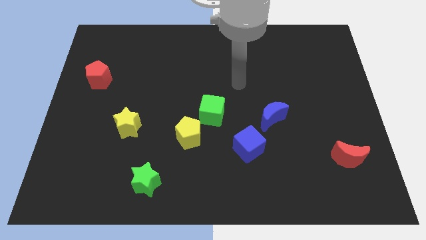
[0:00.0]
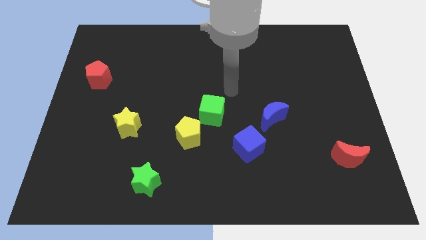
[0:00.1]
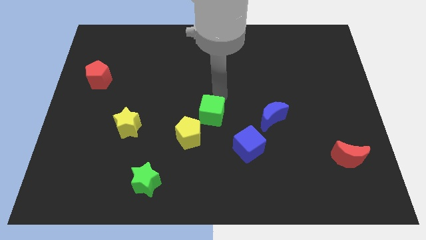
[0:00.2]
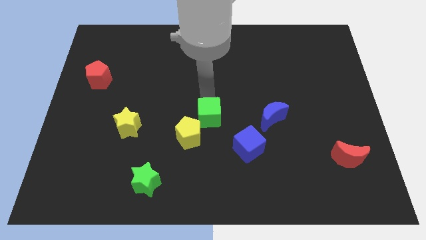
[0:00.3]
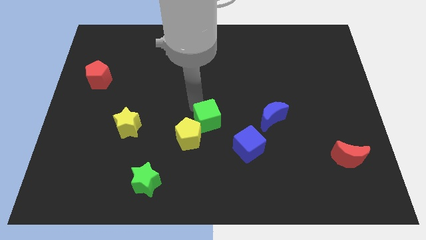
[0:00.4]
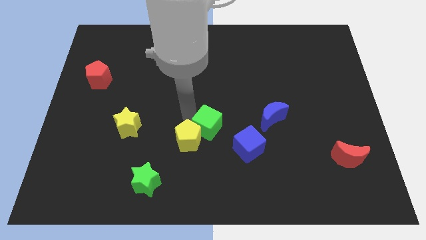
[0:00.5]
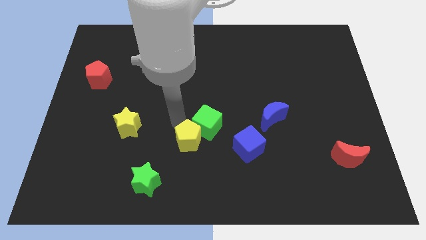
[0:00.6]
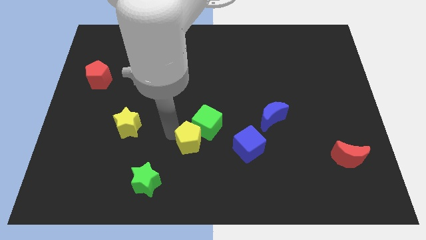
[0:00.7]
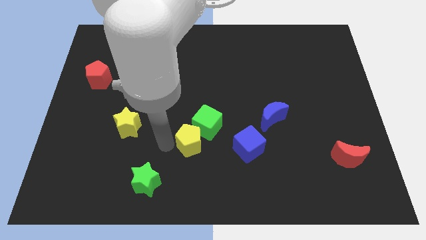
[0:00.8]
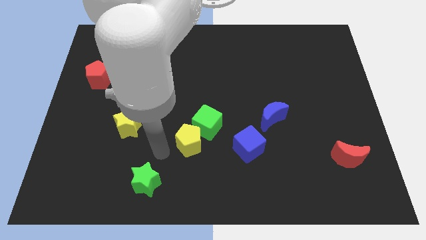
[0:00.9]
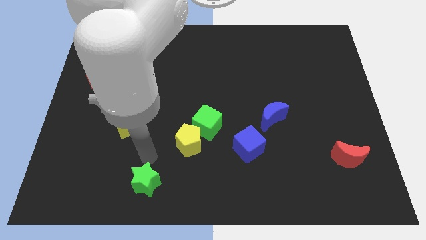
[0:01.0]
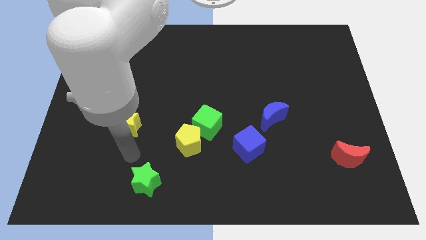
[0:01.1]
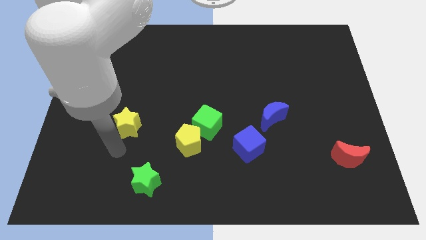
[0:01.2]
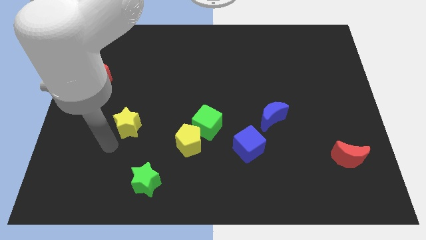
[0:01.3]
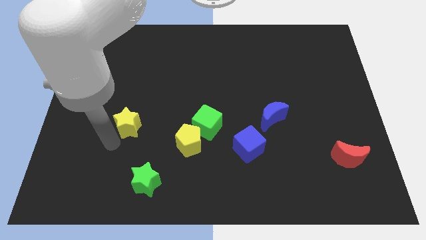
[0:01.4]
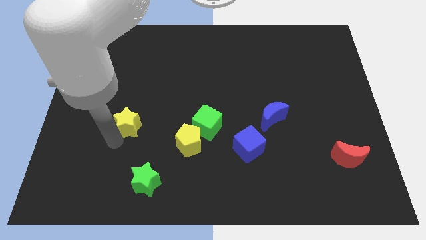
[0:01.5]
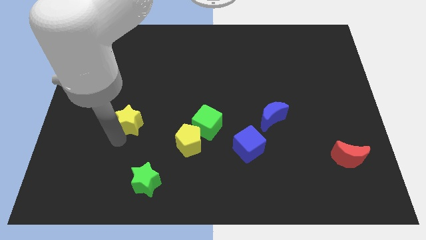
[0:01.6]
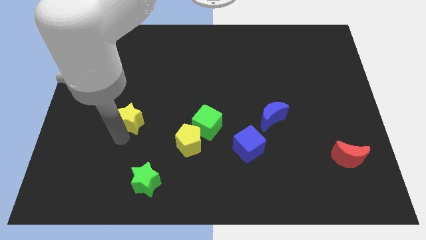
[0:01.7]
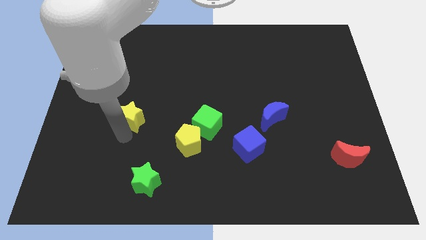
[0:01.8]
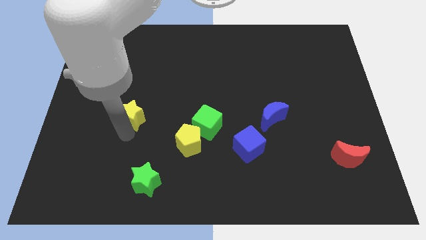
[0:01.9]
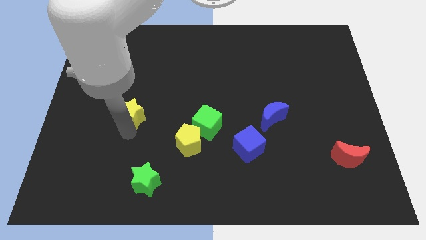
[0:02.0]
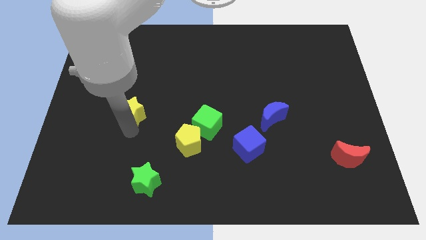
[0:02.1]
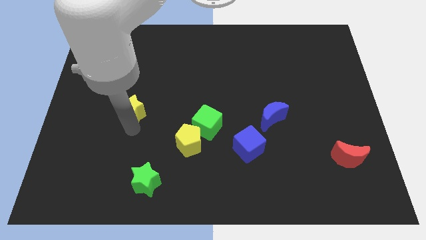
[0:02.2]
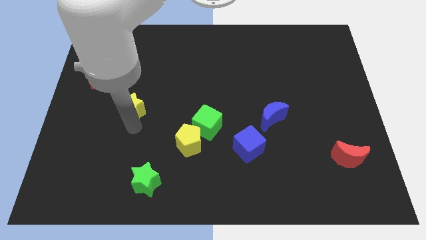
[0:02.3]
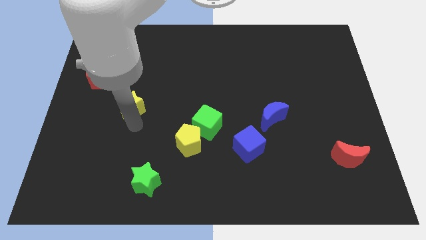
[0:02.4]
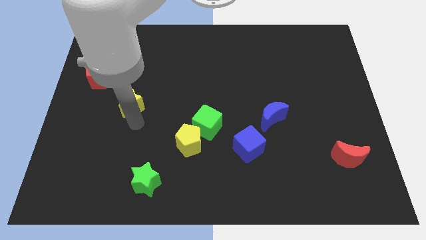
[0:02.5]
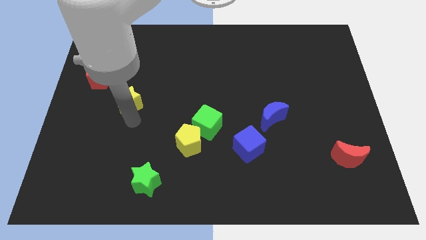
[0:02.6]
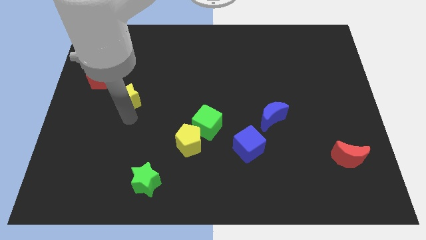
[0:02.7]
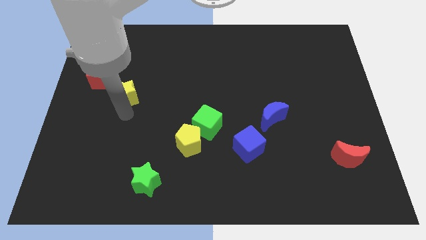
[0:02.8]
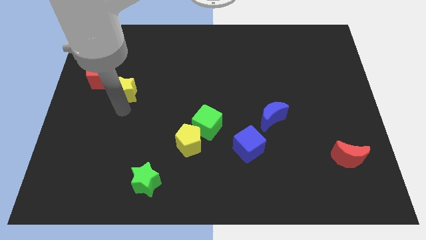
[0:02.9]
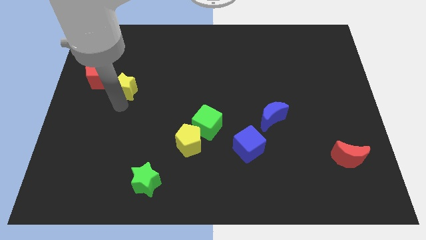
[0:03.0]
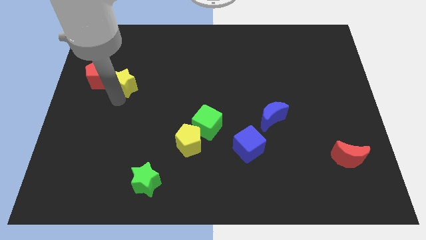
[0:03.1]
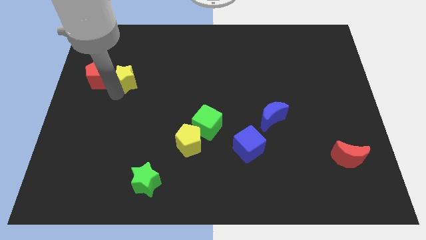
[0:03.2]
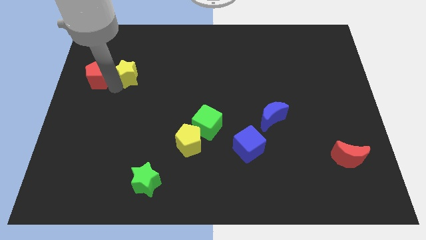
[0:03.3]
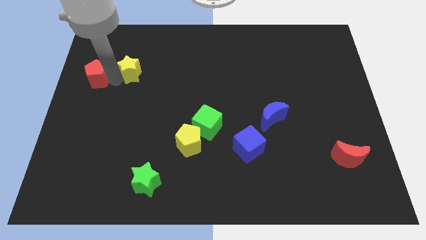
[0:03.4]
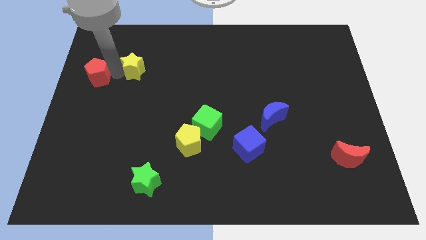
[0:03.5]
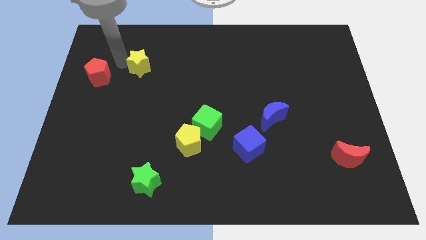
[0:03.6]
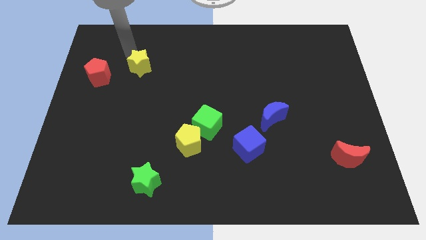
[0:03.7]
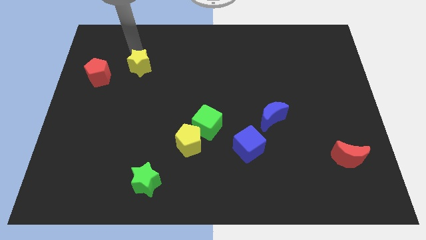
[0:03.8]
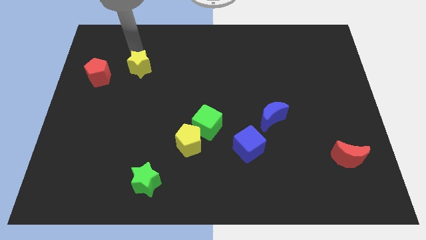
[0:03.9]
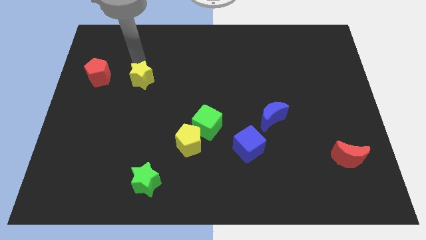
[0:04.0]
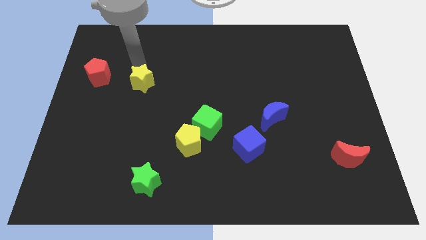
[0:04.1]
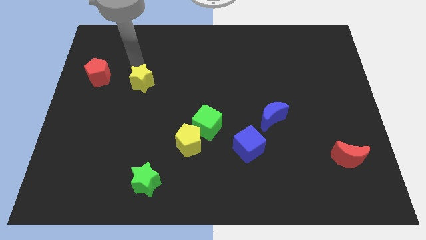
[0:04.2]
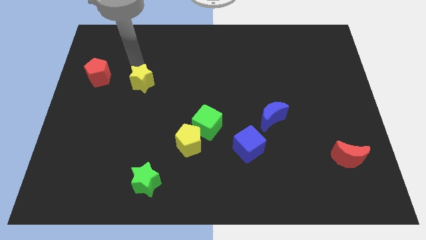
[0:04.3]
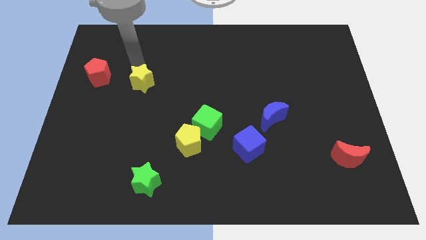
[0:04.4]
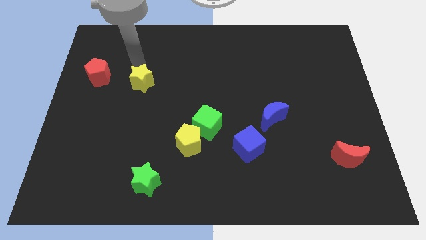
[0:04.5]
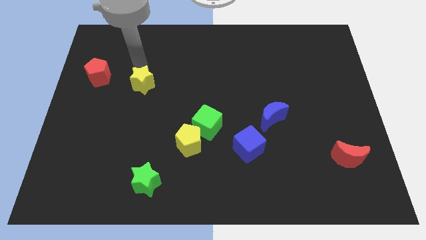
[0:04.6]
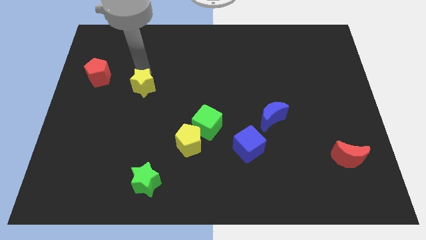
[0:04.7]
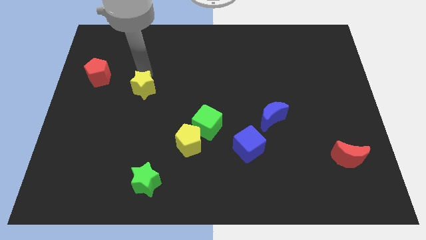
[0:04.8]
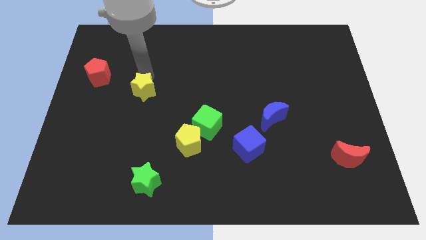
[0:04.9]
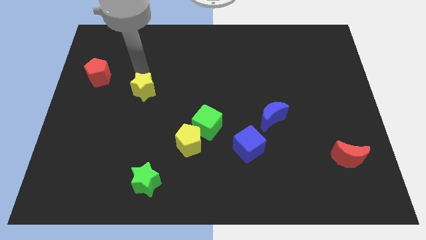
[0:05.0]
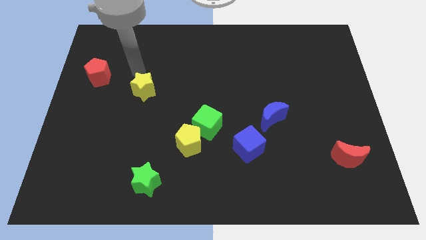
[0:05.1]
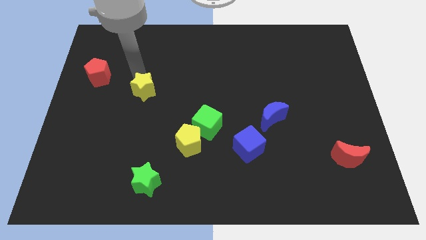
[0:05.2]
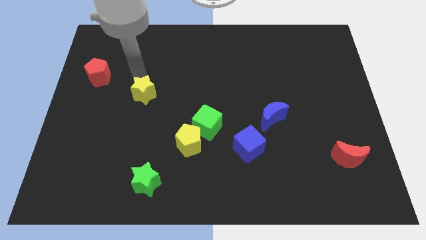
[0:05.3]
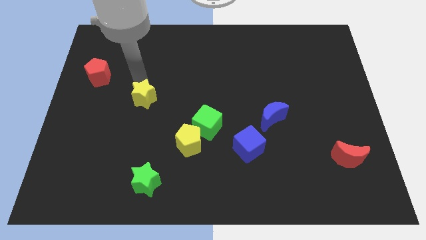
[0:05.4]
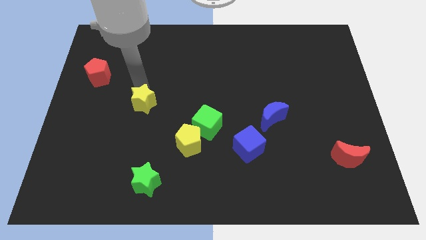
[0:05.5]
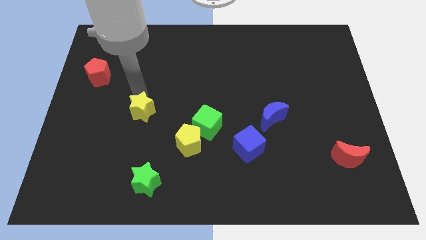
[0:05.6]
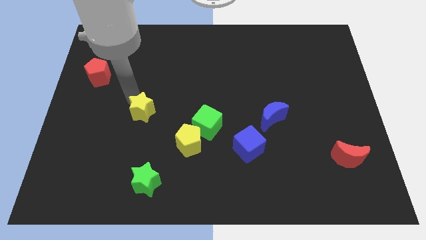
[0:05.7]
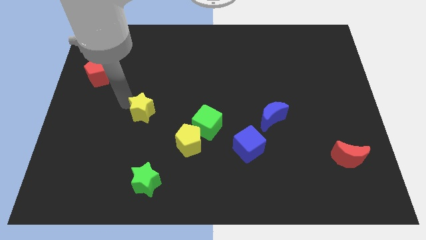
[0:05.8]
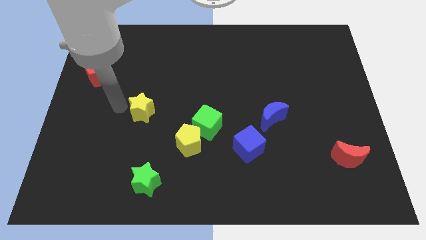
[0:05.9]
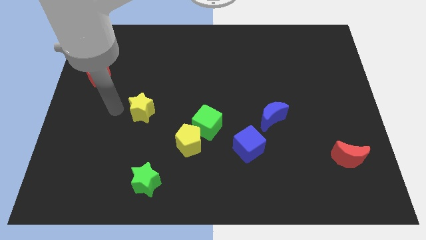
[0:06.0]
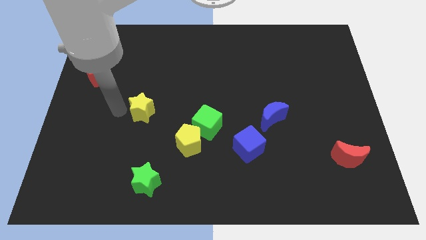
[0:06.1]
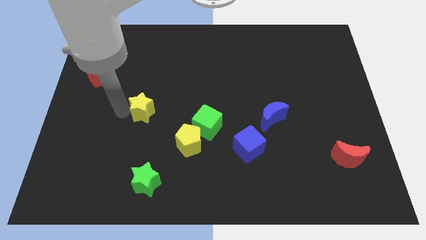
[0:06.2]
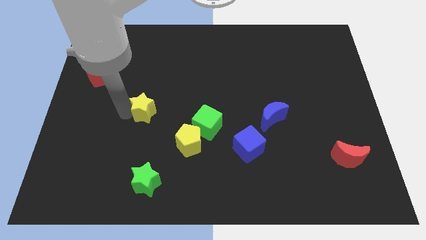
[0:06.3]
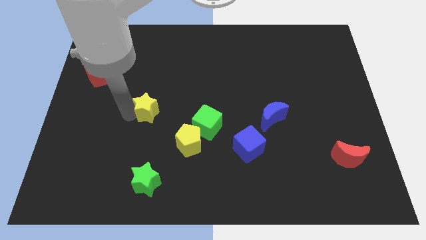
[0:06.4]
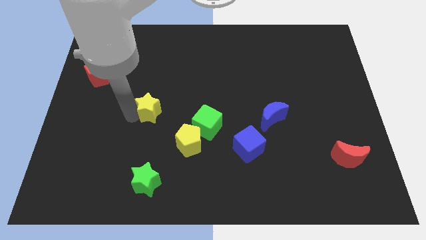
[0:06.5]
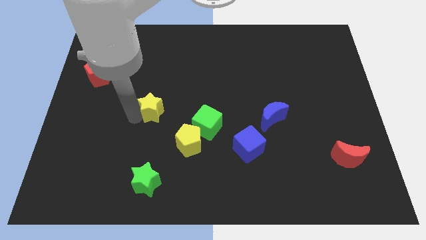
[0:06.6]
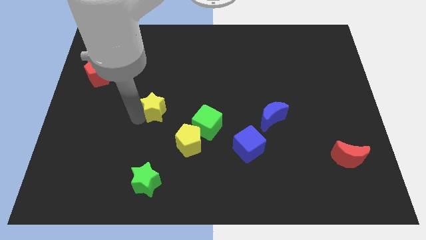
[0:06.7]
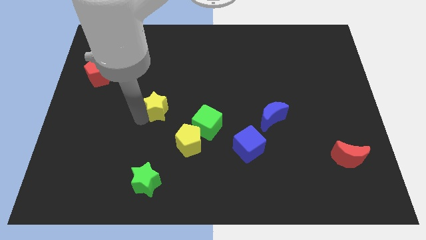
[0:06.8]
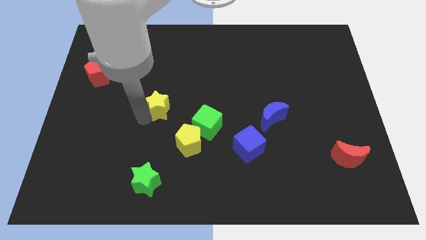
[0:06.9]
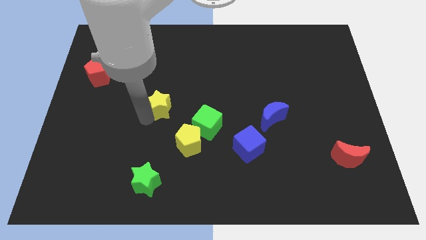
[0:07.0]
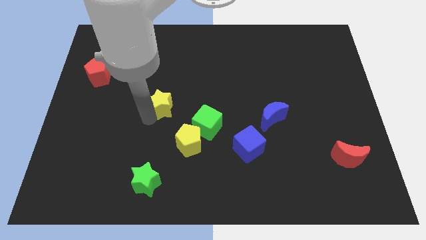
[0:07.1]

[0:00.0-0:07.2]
move the yellow star to the center of the board
